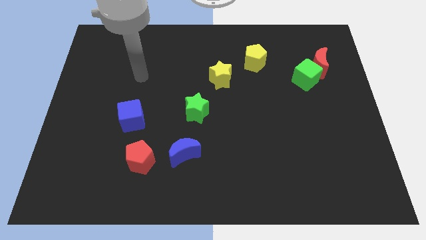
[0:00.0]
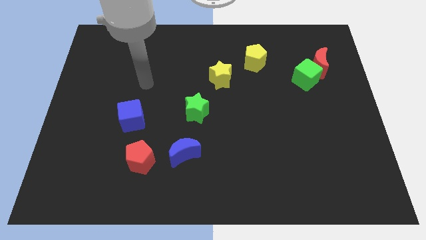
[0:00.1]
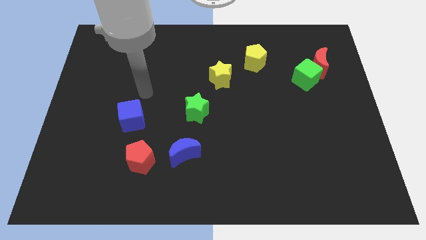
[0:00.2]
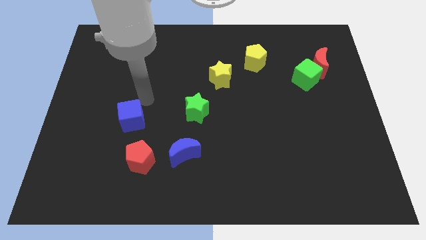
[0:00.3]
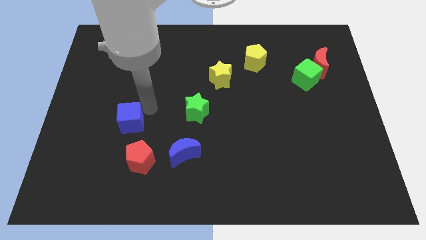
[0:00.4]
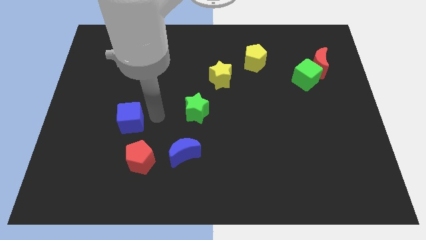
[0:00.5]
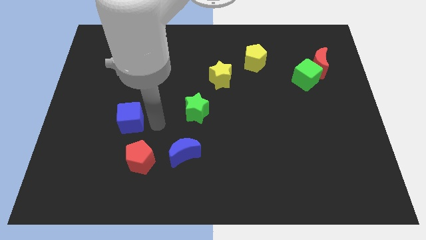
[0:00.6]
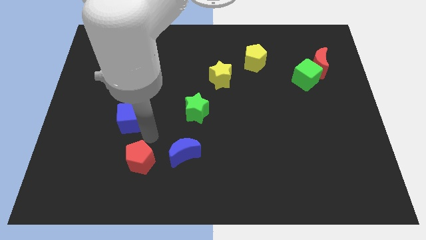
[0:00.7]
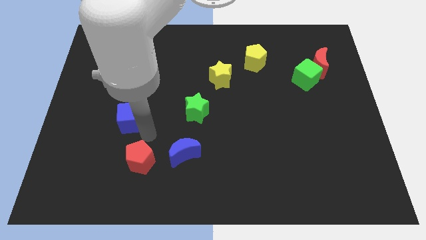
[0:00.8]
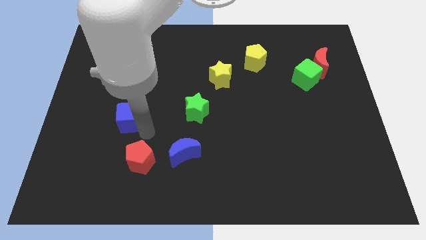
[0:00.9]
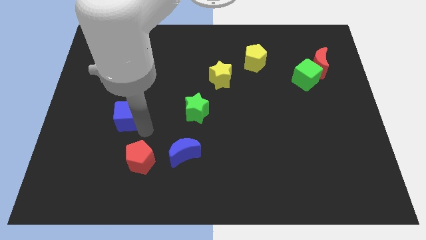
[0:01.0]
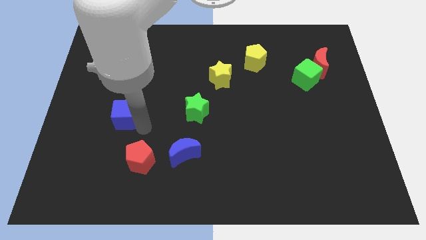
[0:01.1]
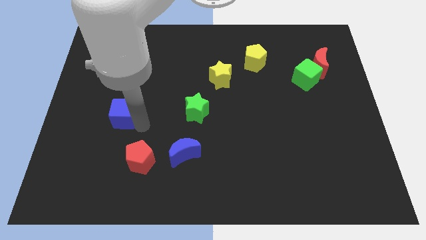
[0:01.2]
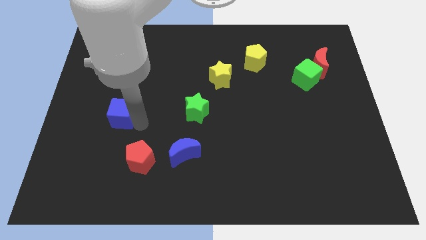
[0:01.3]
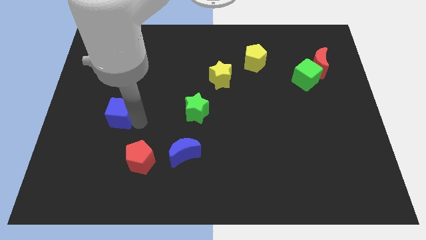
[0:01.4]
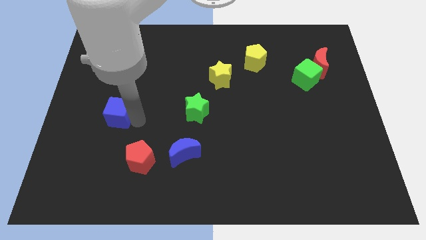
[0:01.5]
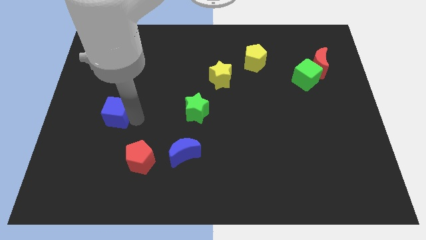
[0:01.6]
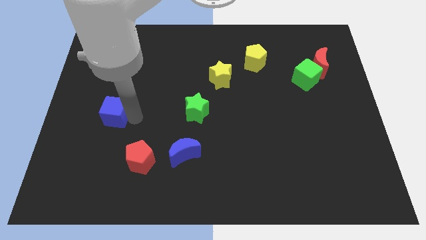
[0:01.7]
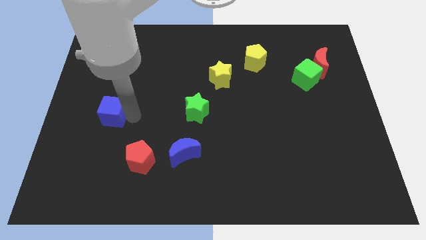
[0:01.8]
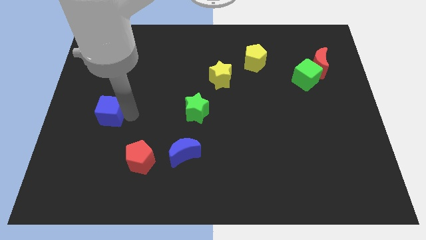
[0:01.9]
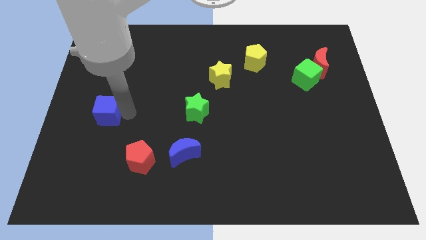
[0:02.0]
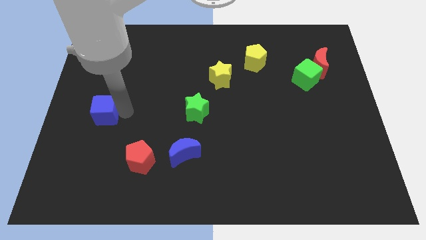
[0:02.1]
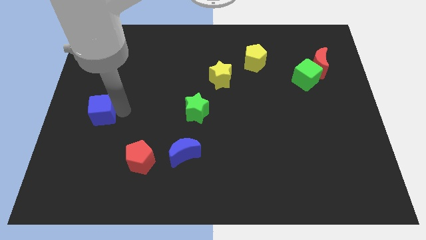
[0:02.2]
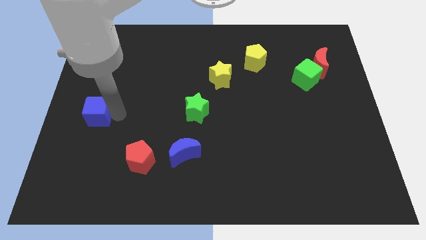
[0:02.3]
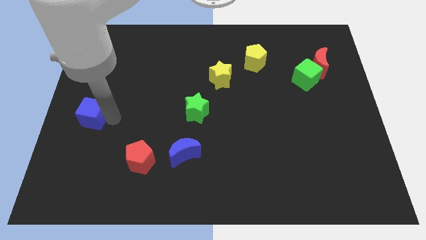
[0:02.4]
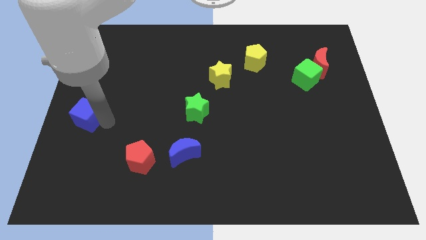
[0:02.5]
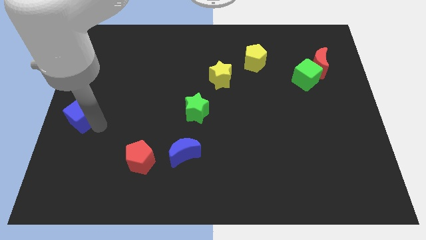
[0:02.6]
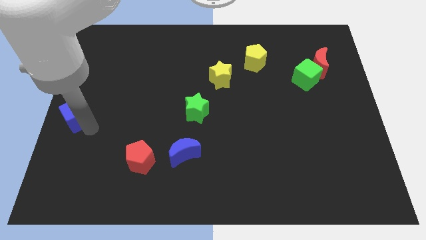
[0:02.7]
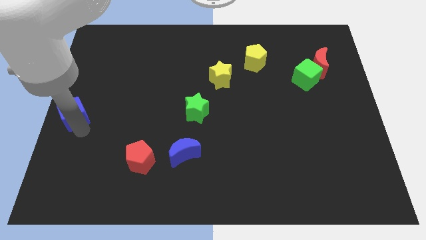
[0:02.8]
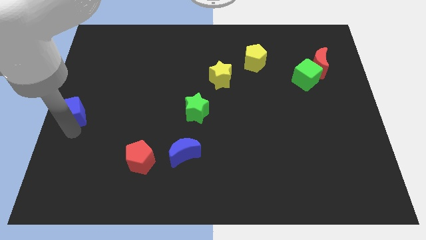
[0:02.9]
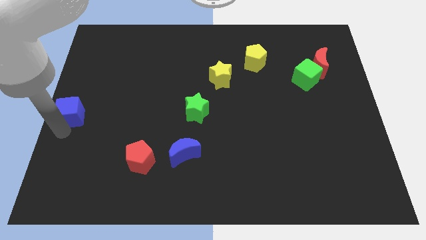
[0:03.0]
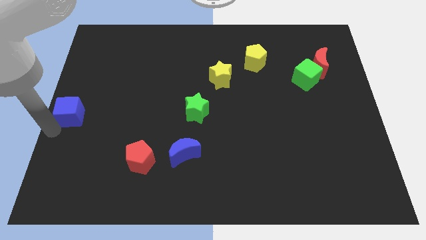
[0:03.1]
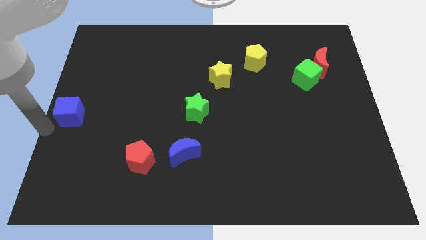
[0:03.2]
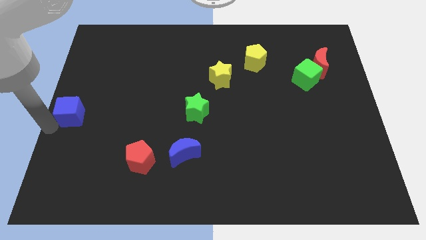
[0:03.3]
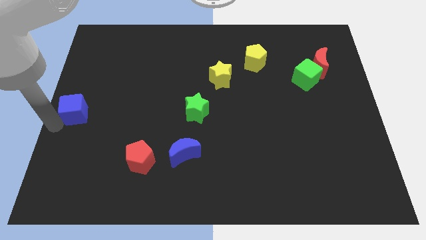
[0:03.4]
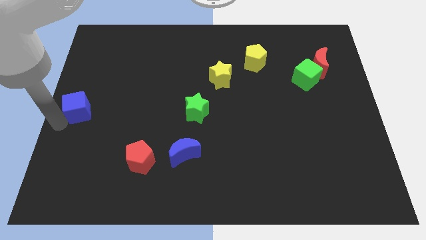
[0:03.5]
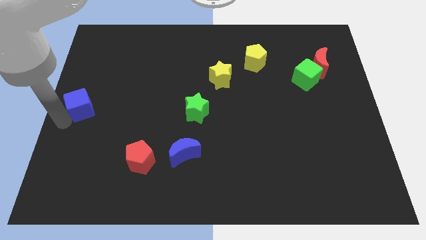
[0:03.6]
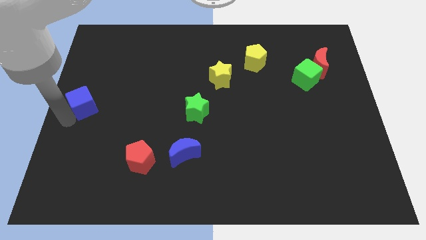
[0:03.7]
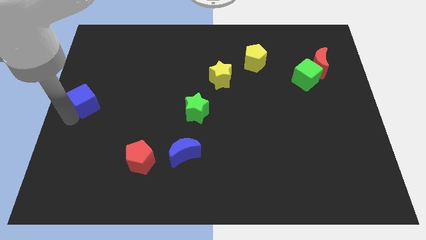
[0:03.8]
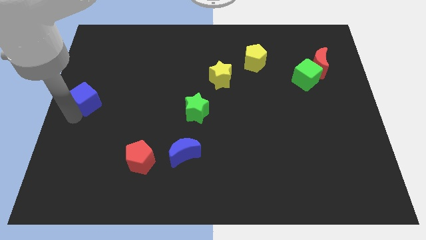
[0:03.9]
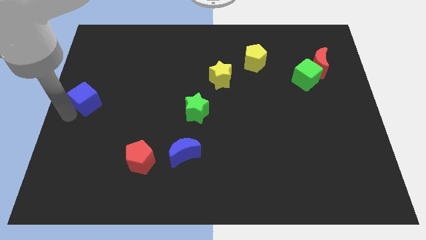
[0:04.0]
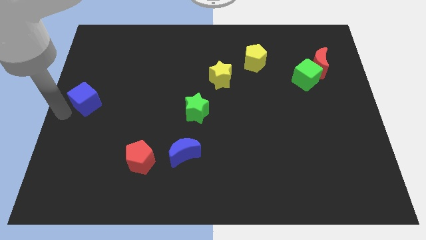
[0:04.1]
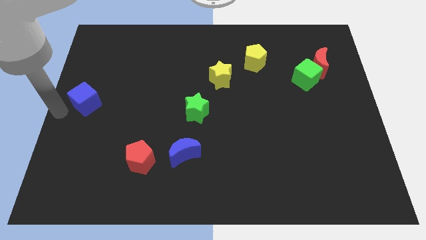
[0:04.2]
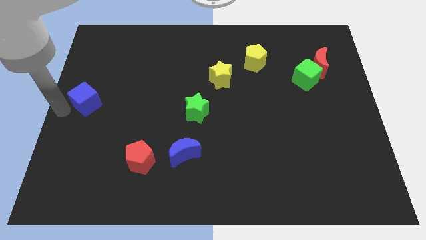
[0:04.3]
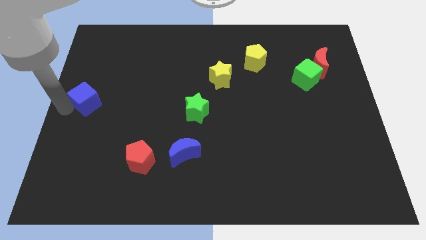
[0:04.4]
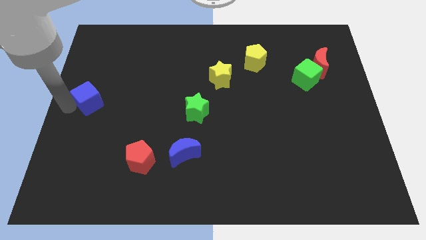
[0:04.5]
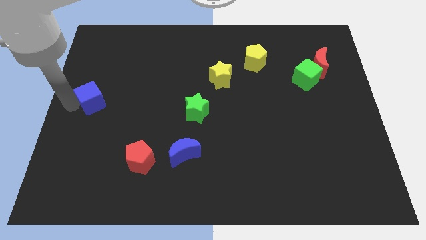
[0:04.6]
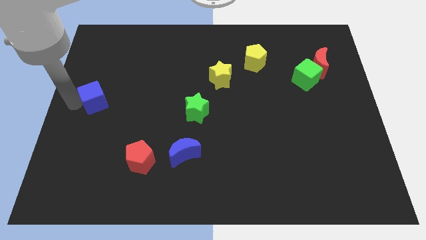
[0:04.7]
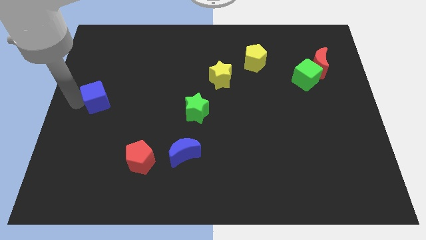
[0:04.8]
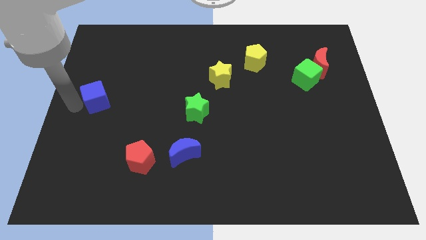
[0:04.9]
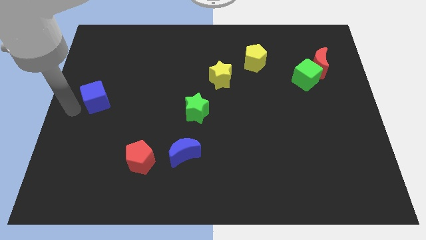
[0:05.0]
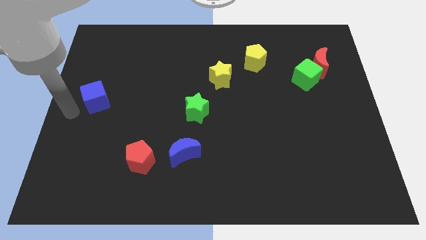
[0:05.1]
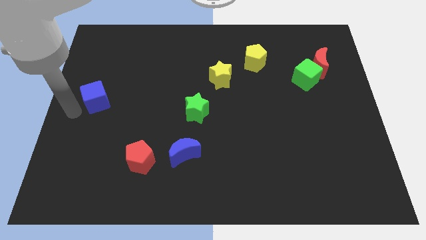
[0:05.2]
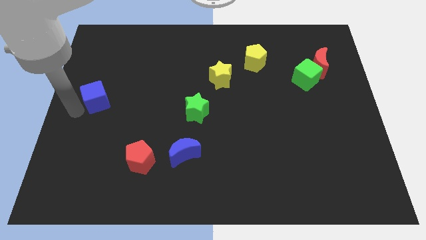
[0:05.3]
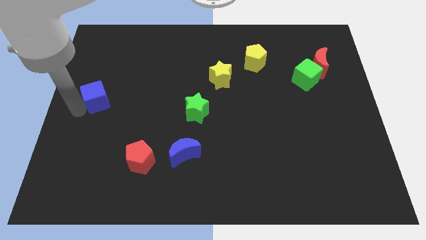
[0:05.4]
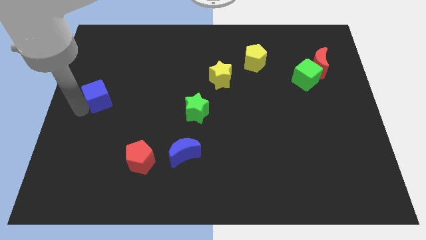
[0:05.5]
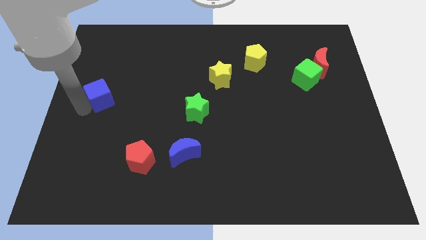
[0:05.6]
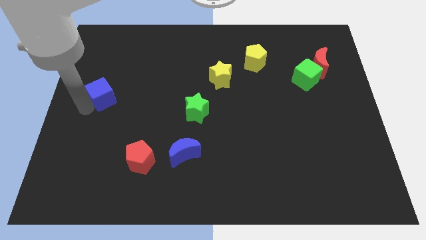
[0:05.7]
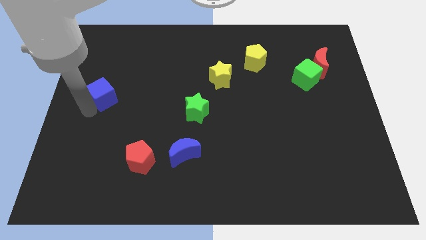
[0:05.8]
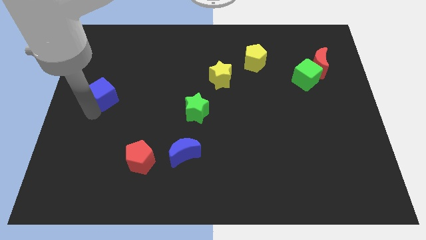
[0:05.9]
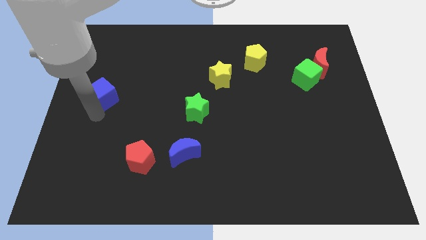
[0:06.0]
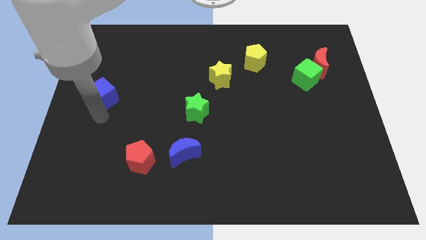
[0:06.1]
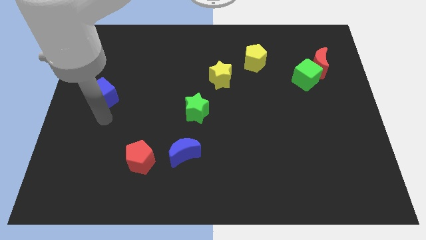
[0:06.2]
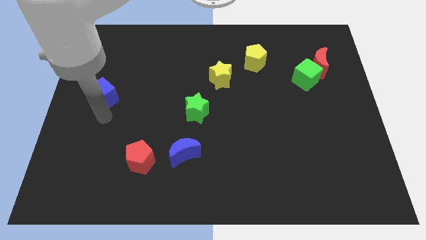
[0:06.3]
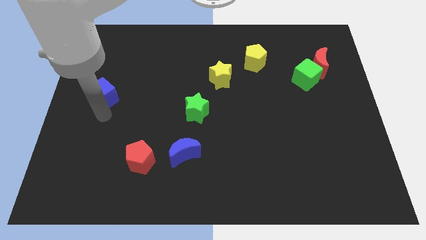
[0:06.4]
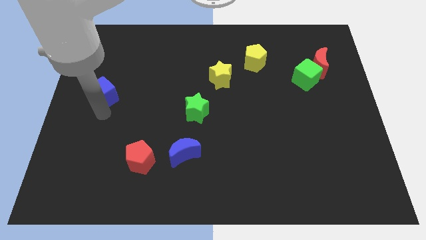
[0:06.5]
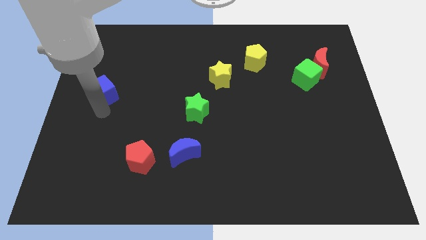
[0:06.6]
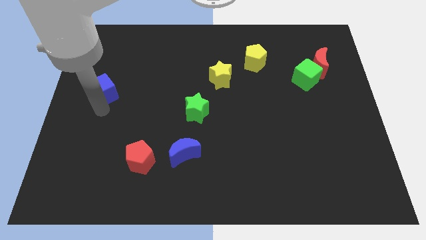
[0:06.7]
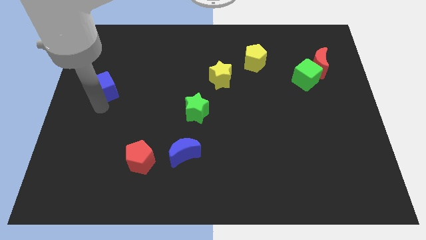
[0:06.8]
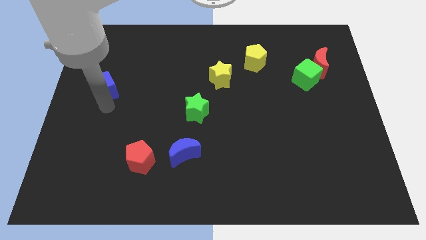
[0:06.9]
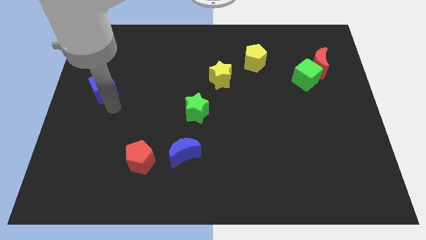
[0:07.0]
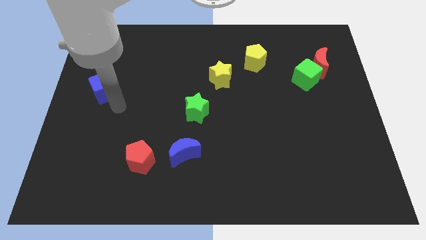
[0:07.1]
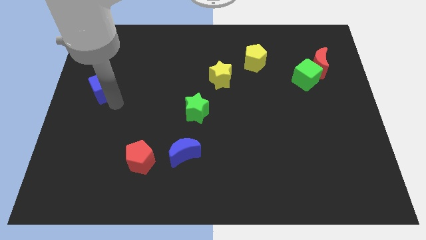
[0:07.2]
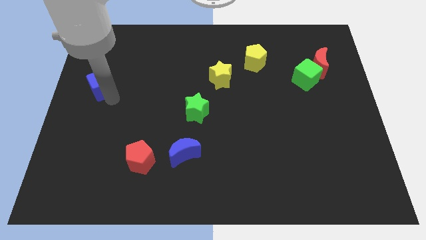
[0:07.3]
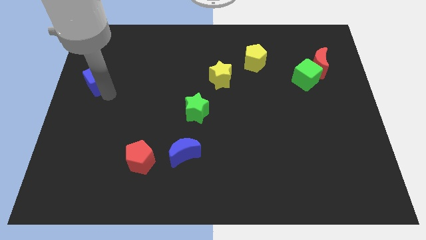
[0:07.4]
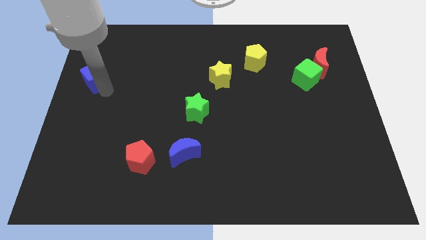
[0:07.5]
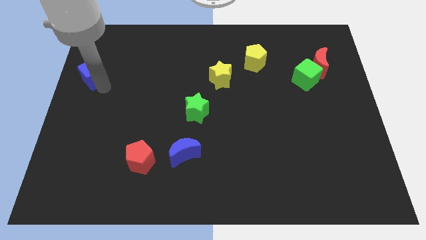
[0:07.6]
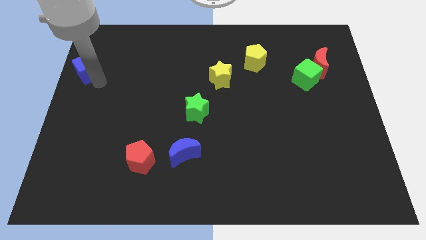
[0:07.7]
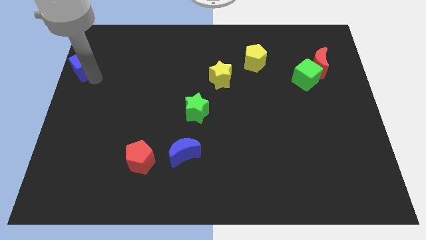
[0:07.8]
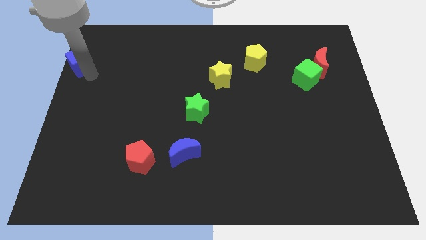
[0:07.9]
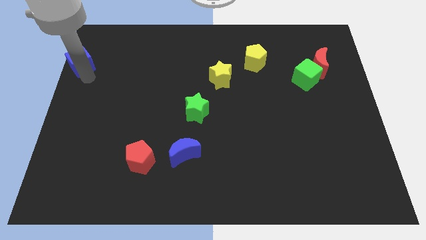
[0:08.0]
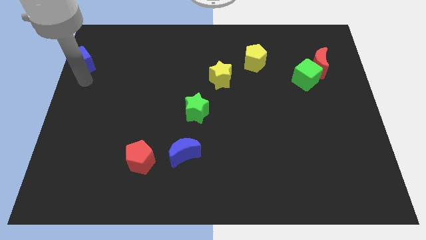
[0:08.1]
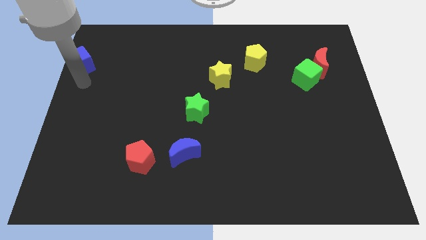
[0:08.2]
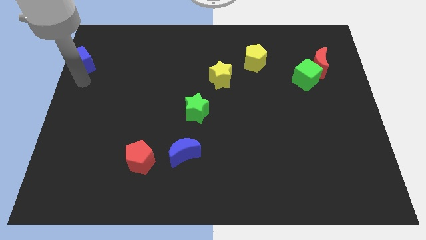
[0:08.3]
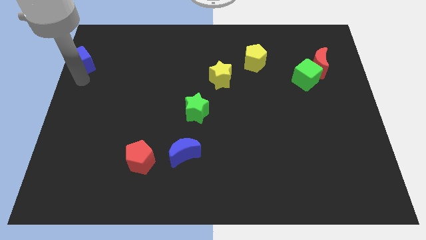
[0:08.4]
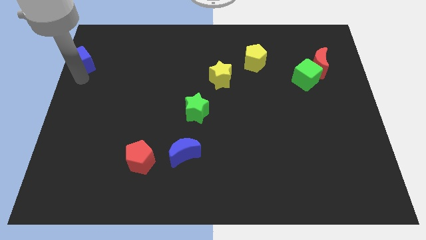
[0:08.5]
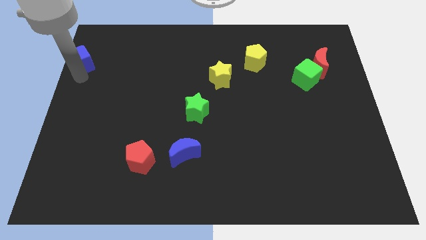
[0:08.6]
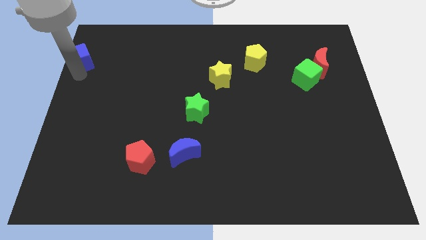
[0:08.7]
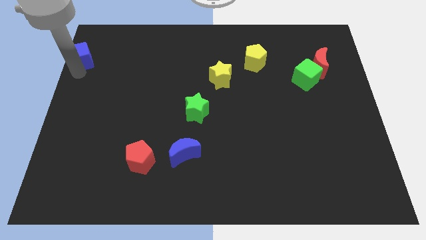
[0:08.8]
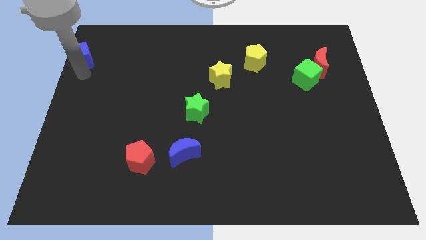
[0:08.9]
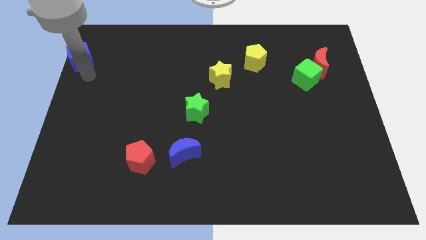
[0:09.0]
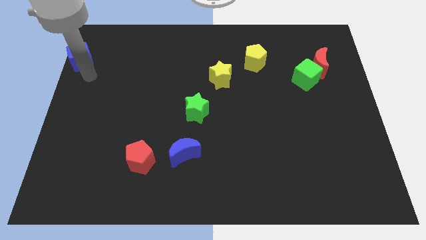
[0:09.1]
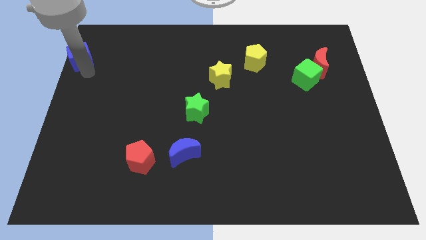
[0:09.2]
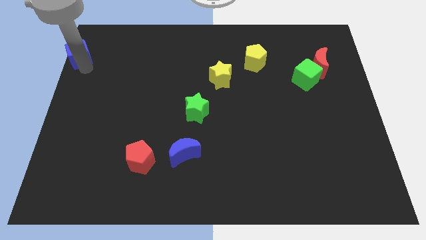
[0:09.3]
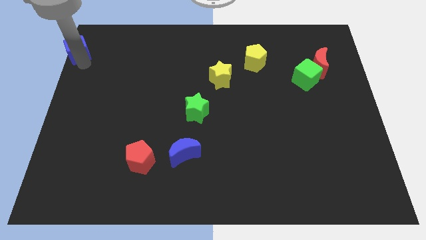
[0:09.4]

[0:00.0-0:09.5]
push the blue cube to the top left corner
